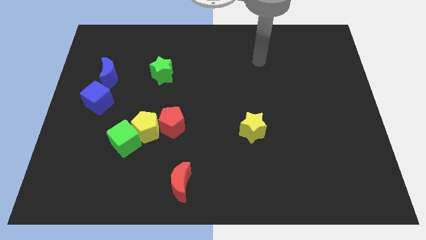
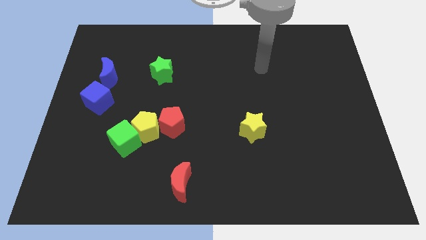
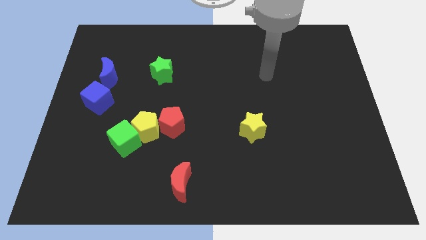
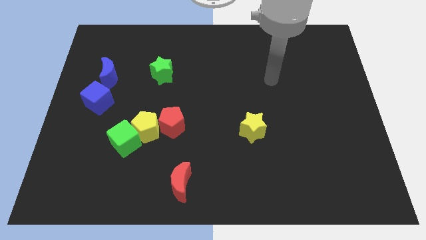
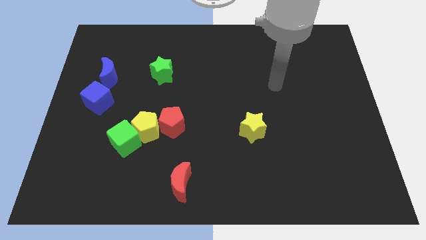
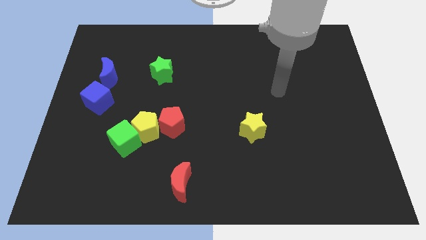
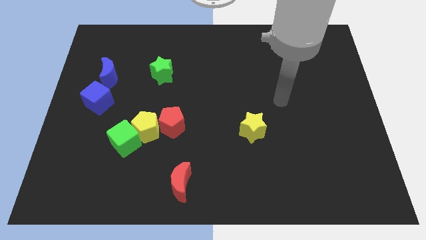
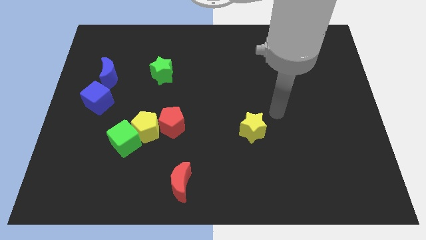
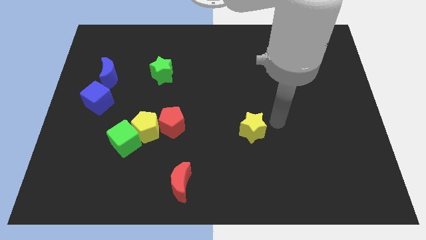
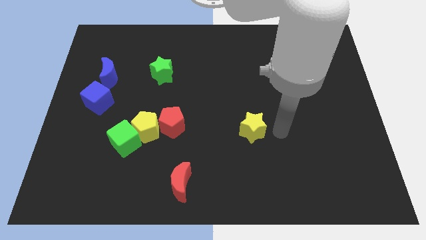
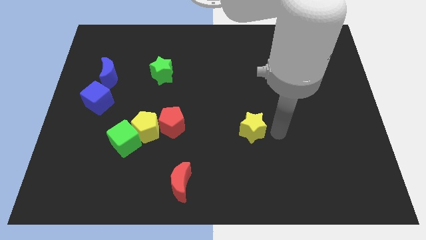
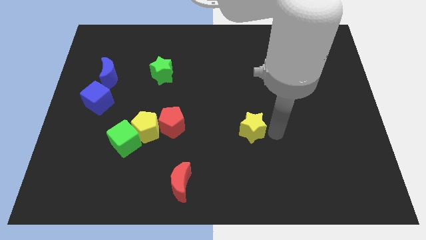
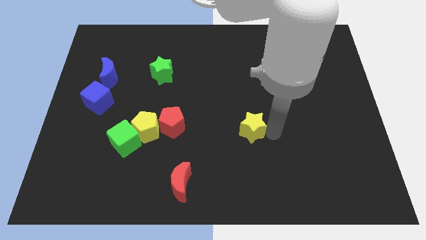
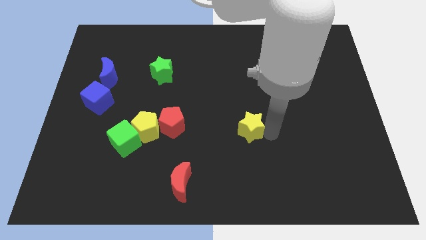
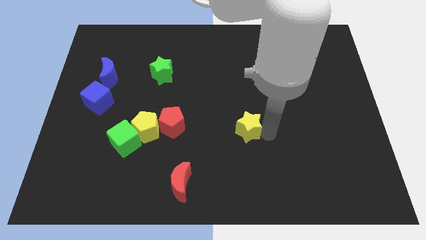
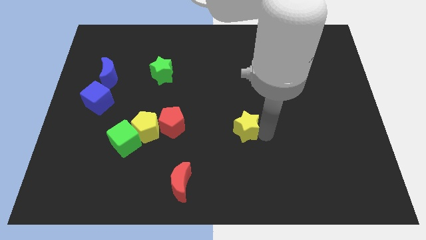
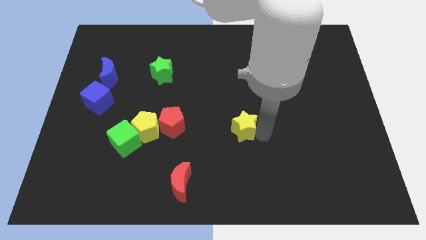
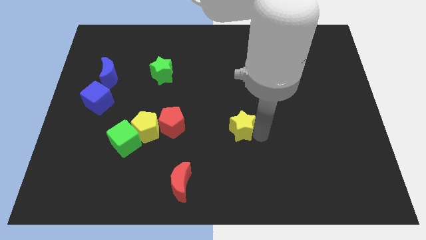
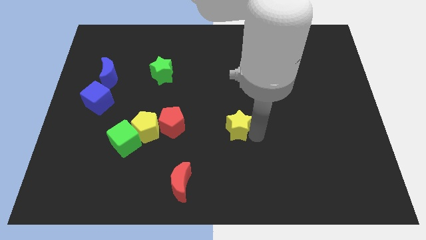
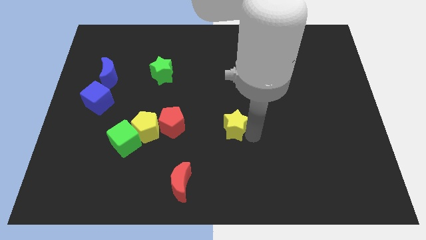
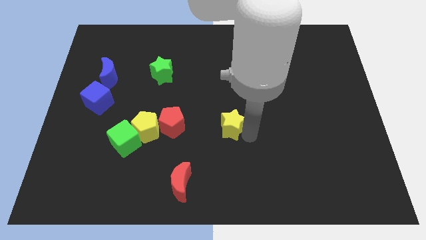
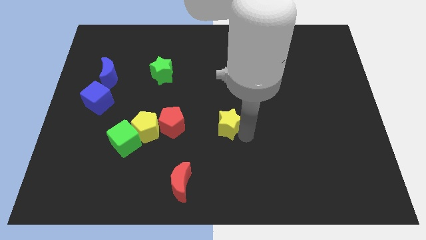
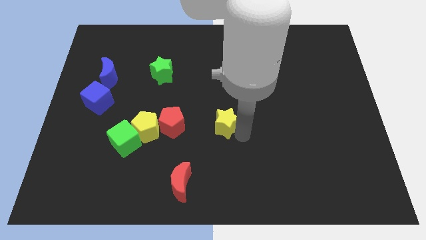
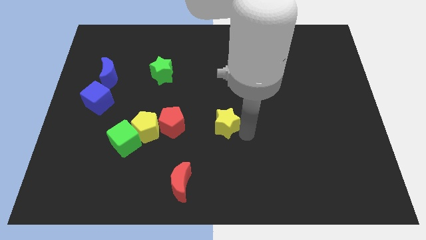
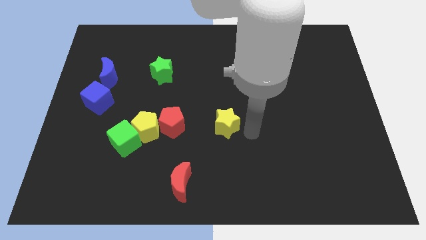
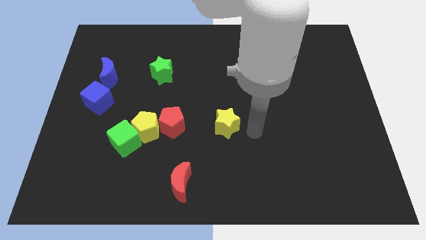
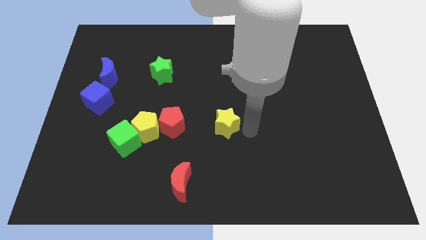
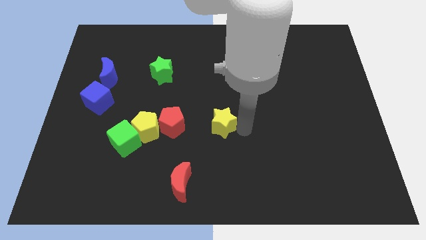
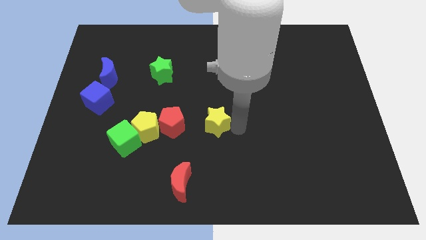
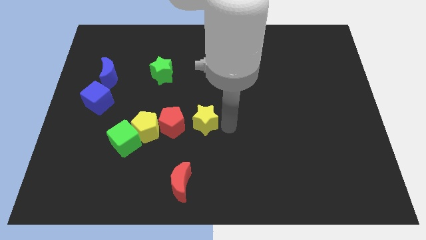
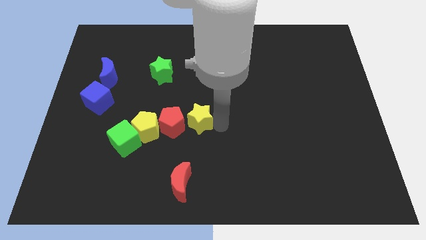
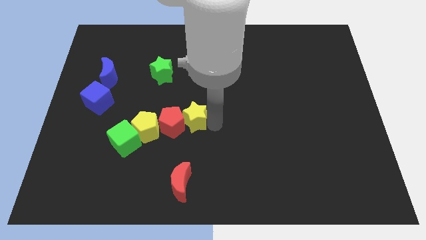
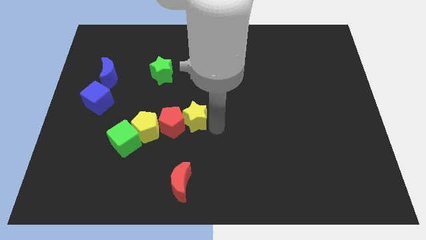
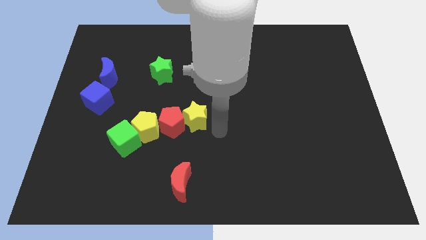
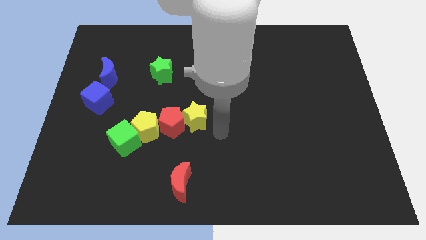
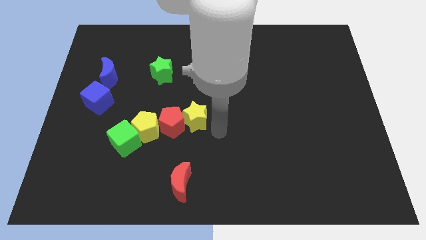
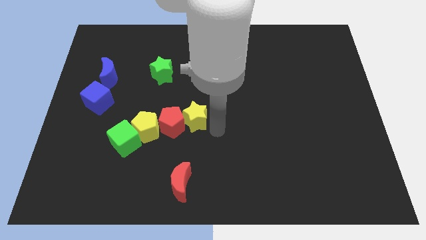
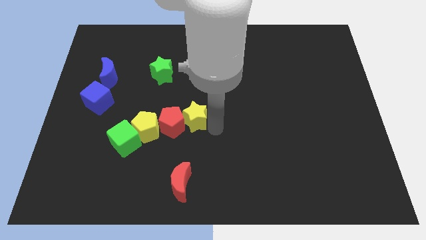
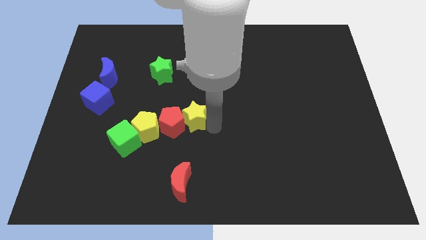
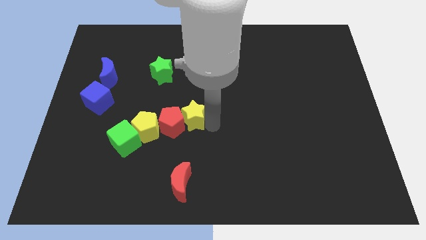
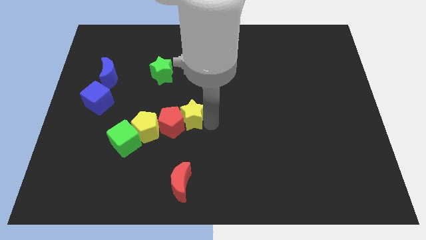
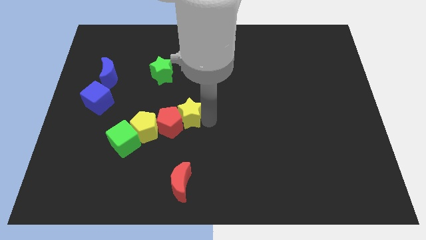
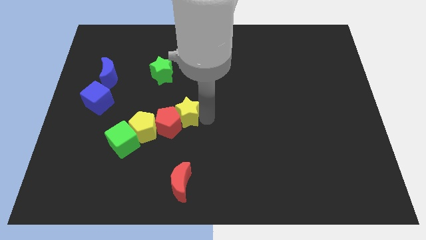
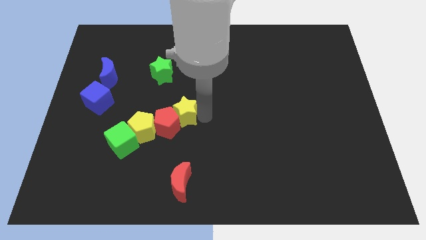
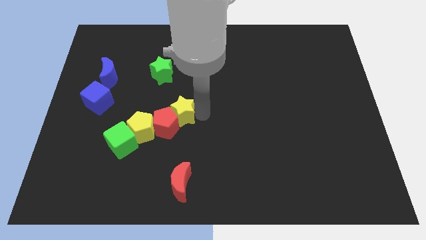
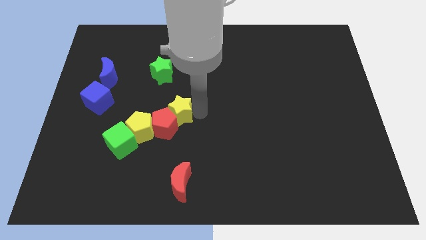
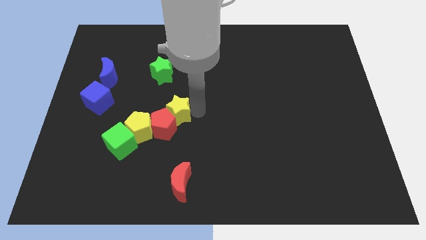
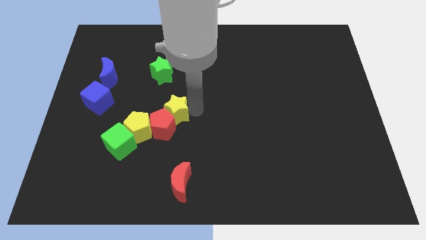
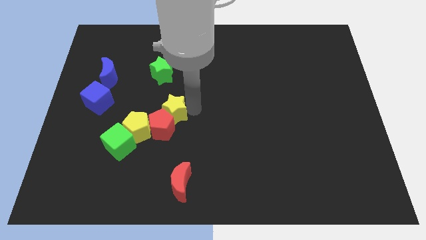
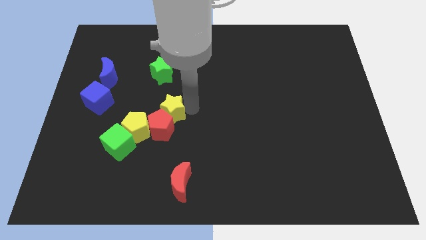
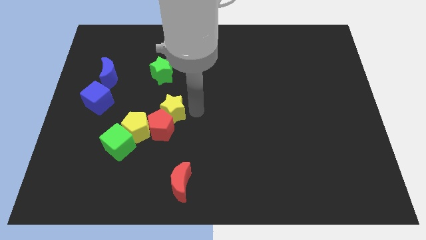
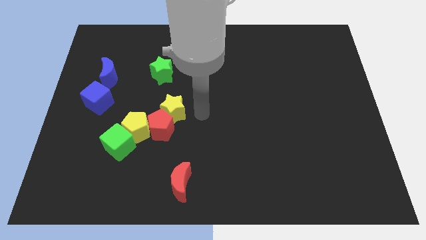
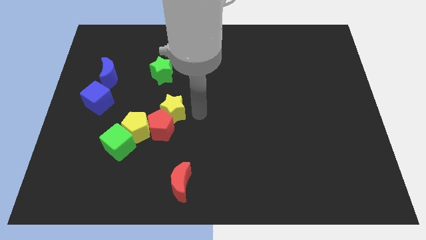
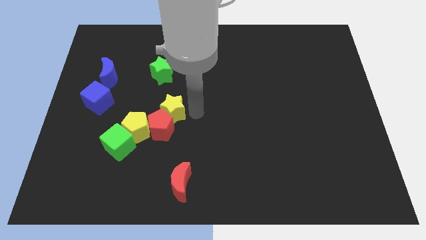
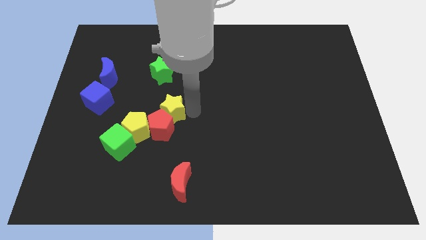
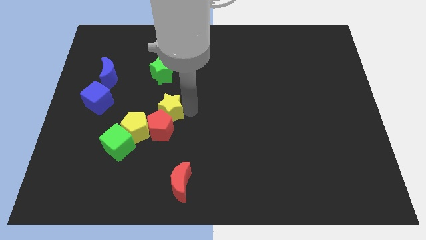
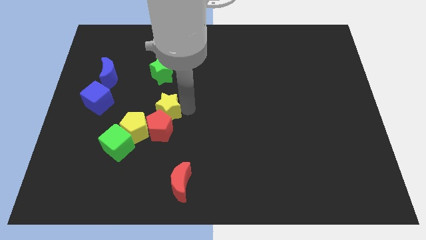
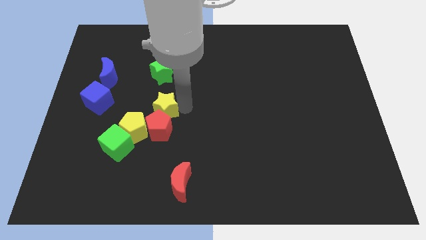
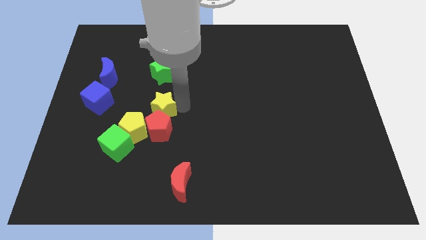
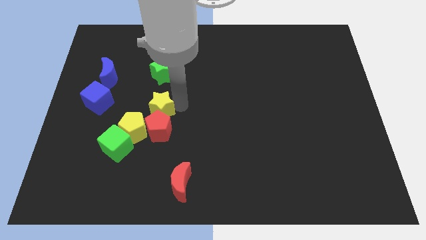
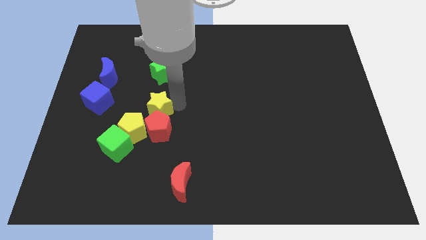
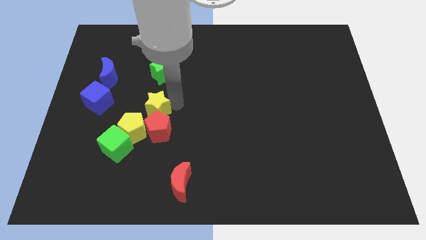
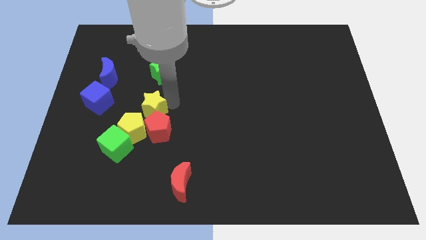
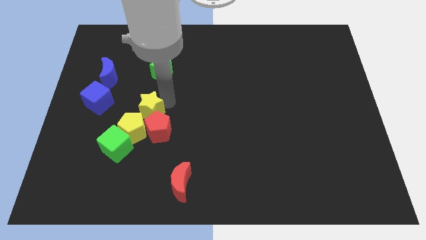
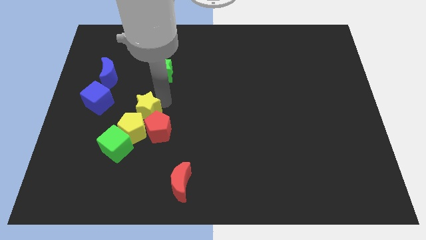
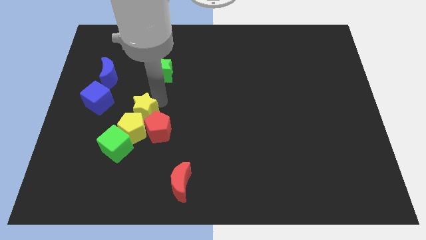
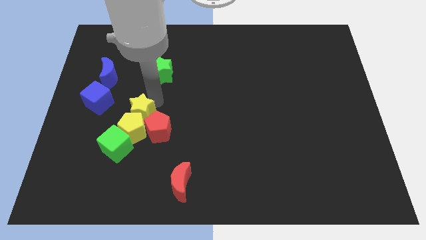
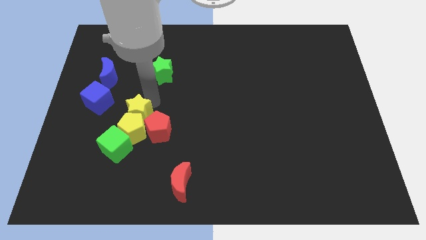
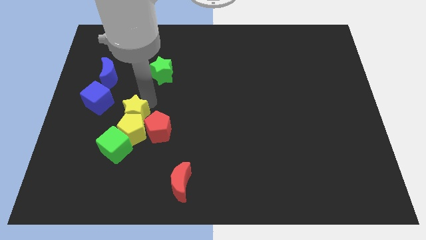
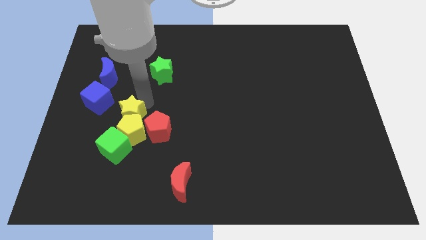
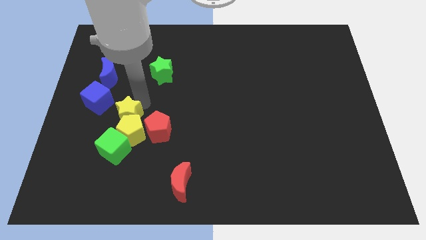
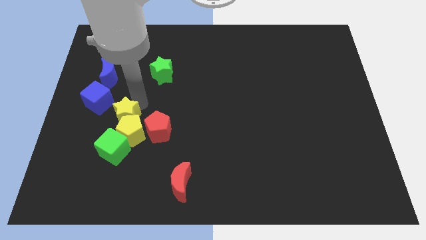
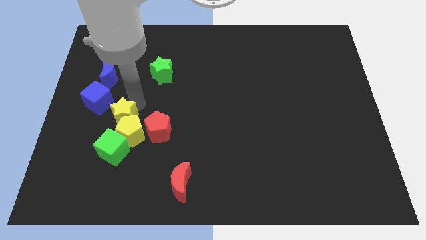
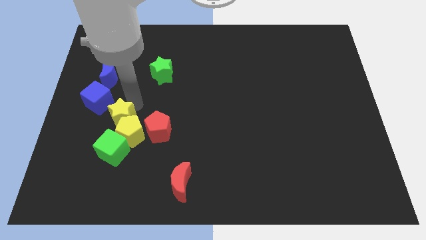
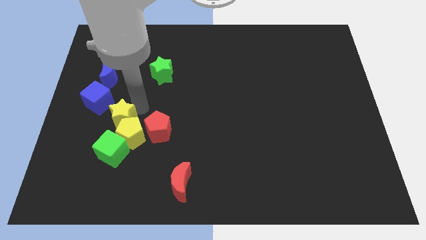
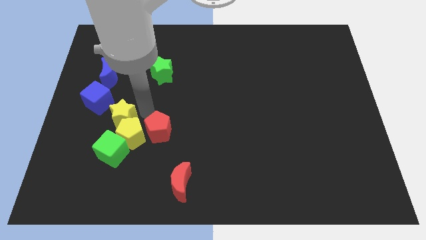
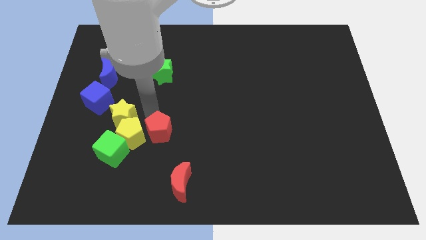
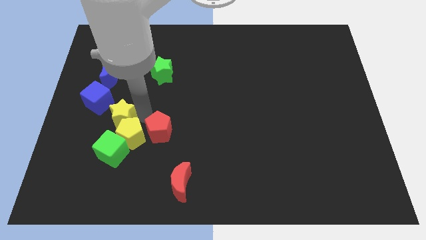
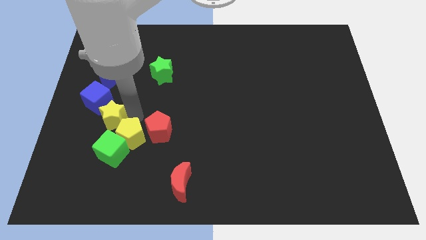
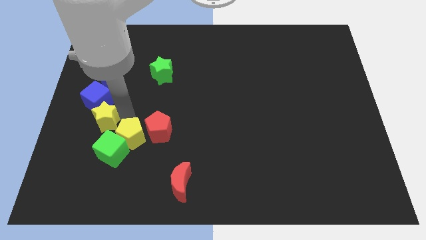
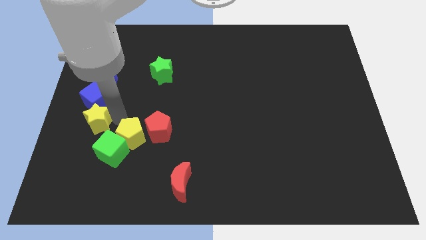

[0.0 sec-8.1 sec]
slide the yellow star to the center left
